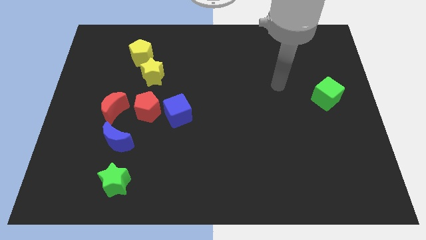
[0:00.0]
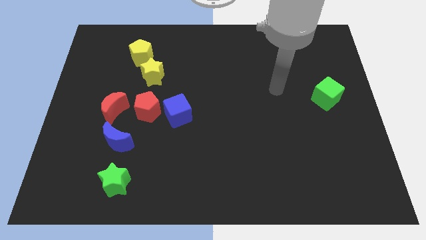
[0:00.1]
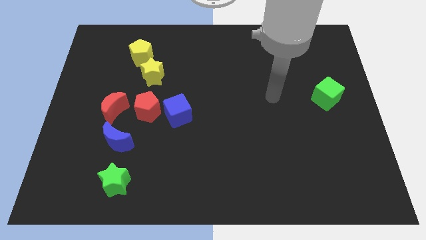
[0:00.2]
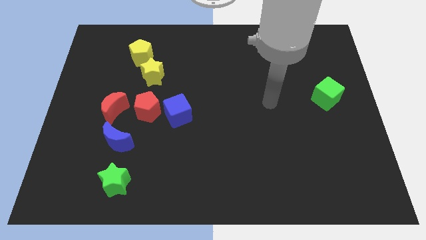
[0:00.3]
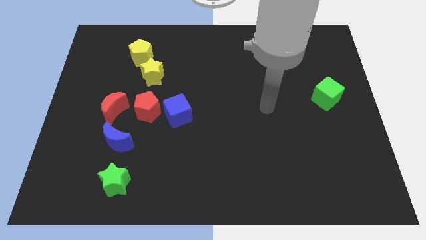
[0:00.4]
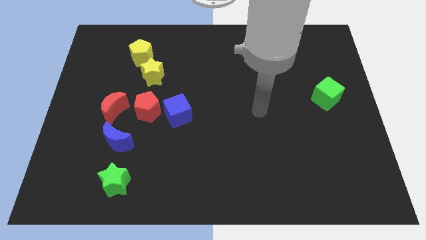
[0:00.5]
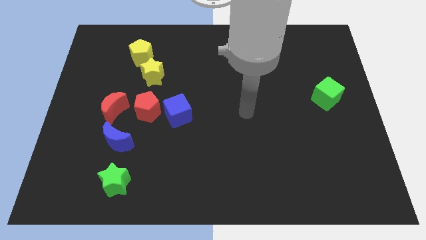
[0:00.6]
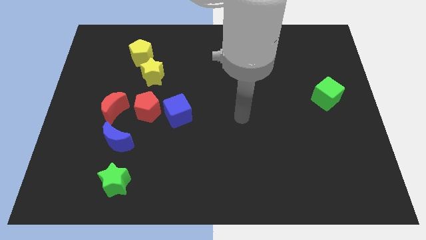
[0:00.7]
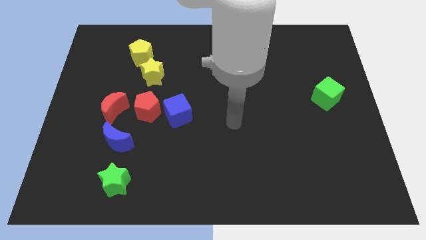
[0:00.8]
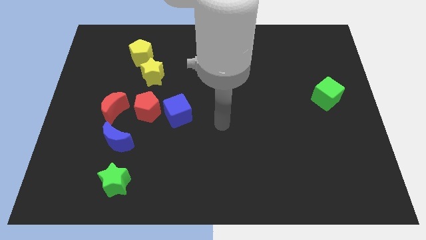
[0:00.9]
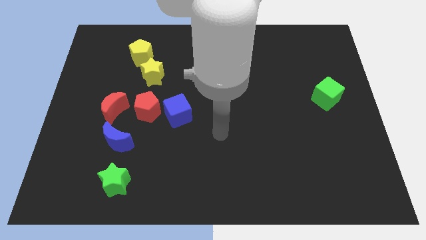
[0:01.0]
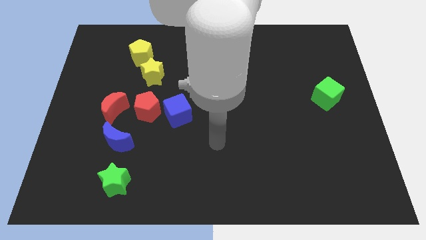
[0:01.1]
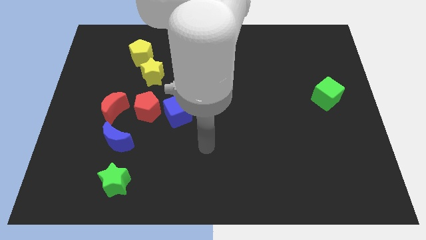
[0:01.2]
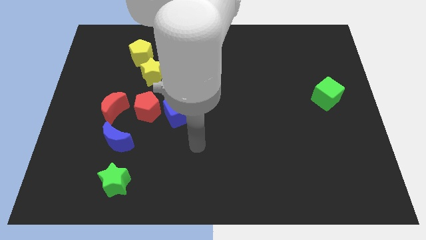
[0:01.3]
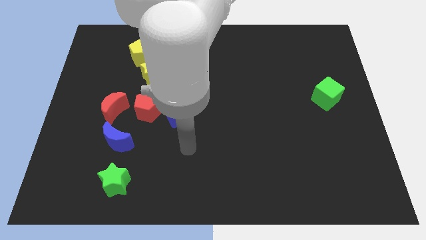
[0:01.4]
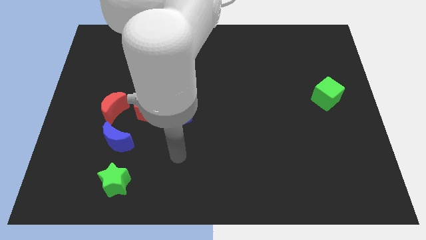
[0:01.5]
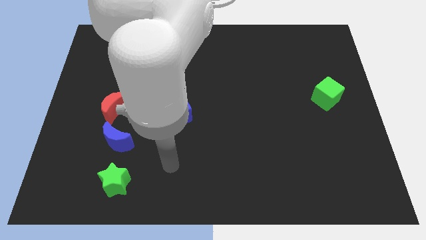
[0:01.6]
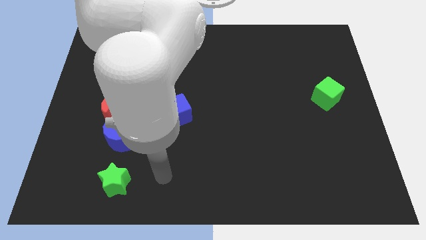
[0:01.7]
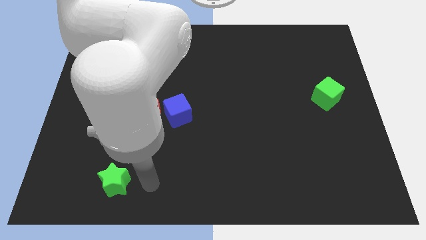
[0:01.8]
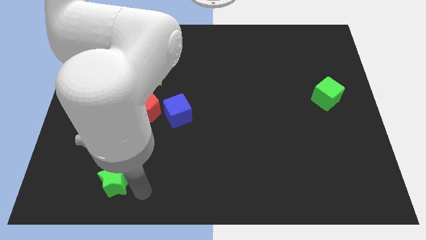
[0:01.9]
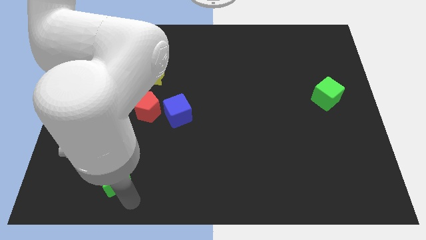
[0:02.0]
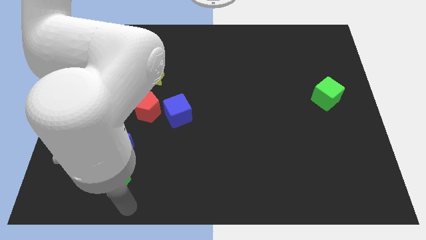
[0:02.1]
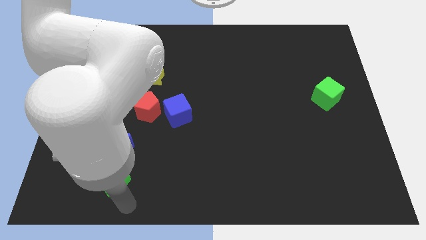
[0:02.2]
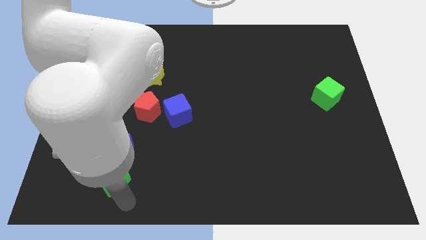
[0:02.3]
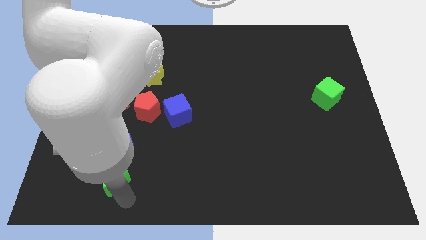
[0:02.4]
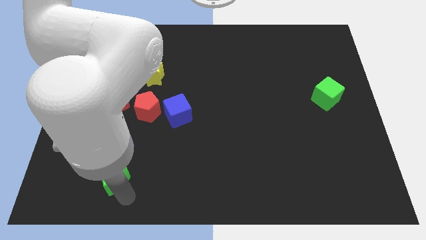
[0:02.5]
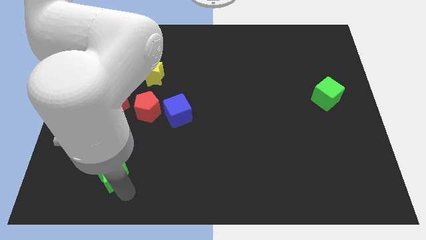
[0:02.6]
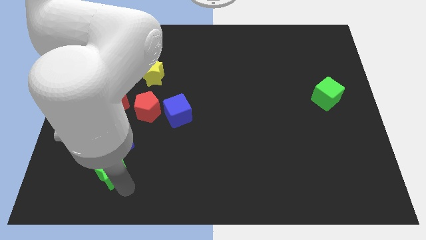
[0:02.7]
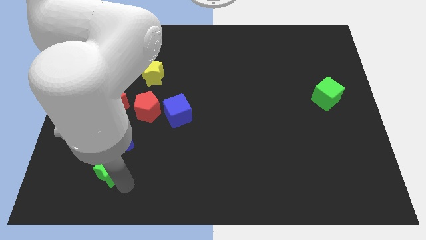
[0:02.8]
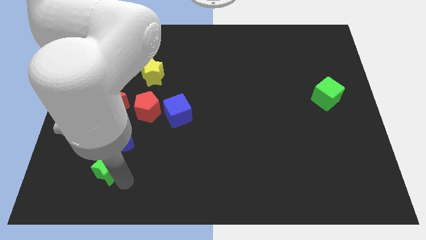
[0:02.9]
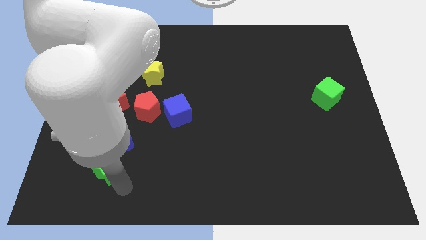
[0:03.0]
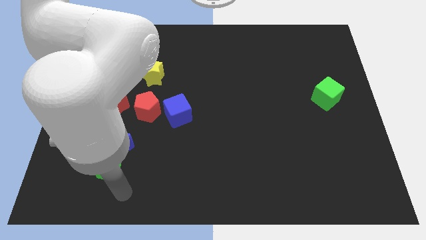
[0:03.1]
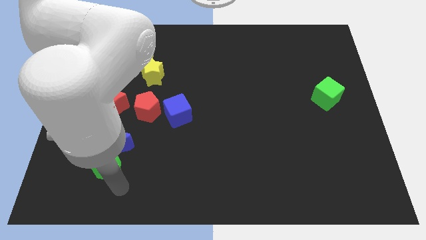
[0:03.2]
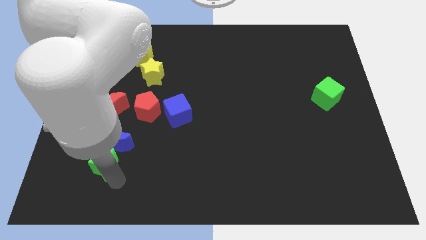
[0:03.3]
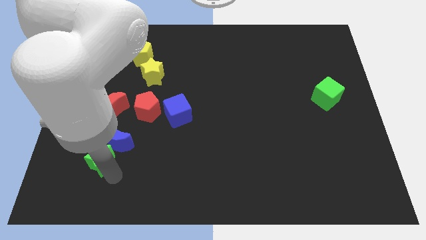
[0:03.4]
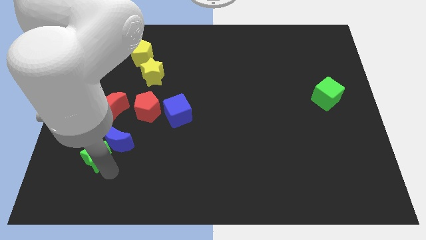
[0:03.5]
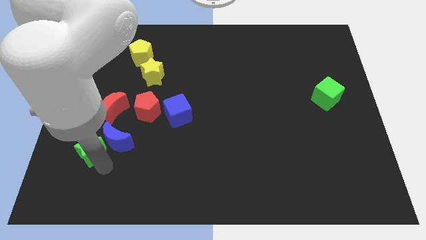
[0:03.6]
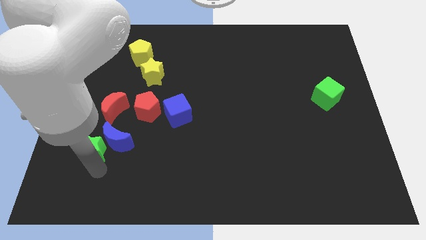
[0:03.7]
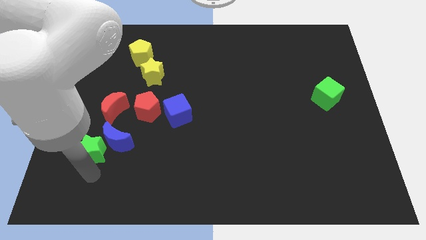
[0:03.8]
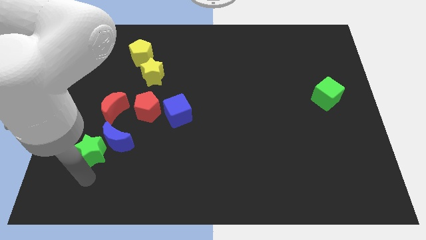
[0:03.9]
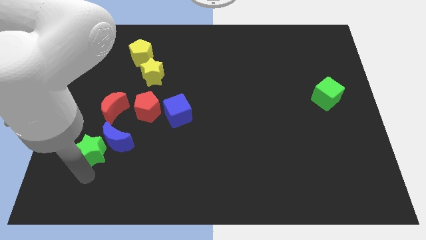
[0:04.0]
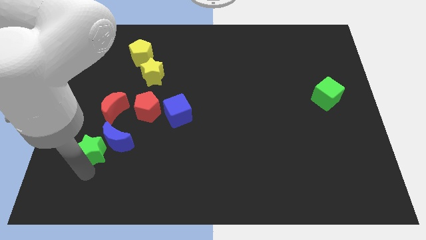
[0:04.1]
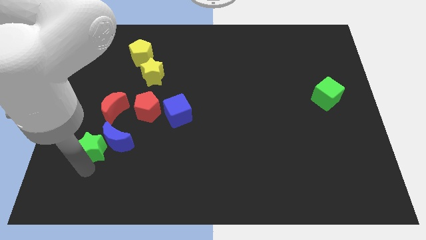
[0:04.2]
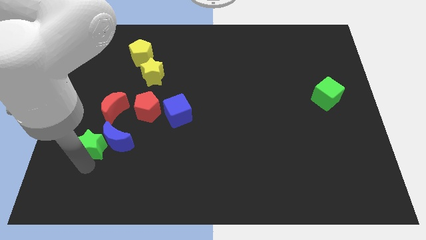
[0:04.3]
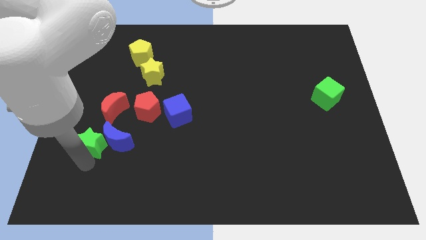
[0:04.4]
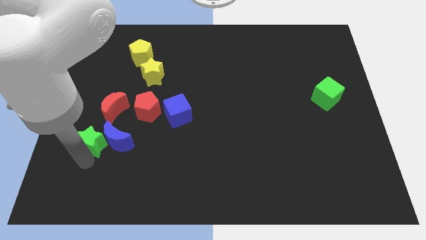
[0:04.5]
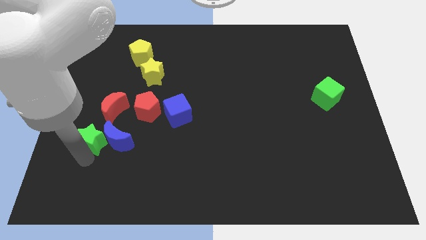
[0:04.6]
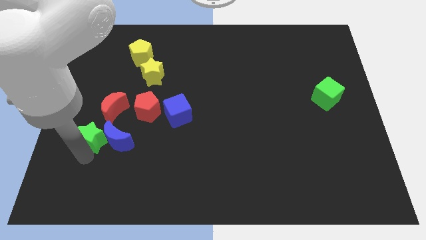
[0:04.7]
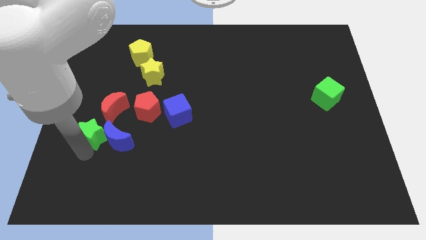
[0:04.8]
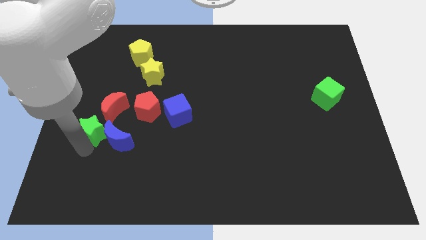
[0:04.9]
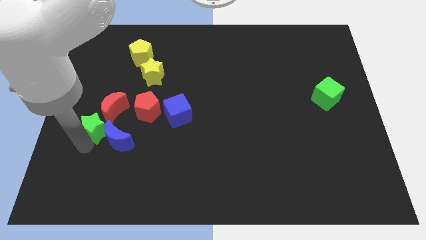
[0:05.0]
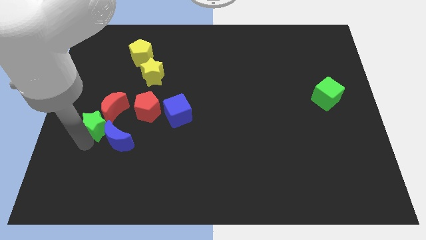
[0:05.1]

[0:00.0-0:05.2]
move the green star next to the red moon

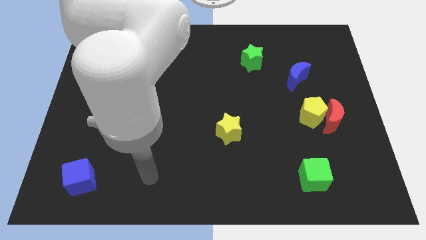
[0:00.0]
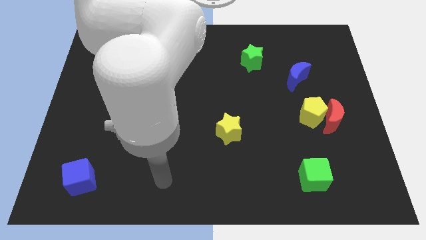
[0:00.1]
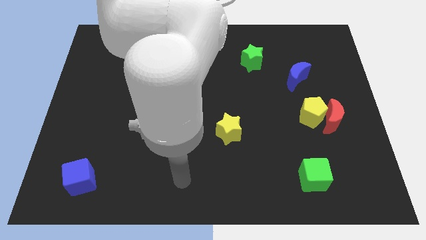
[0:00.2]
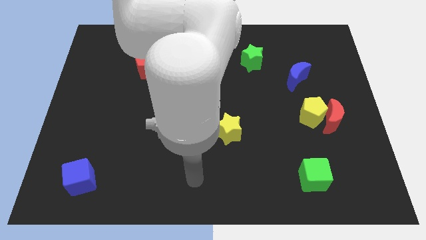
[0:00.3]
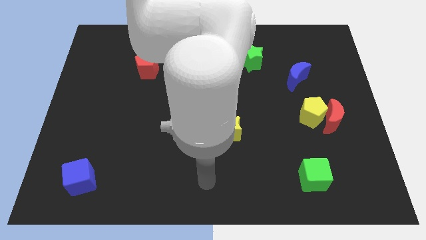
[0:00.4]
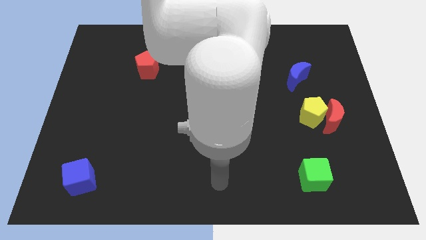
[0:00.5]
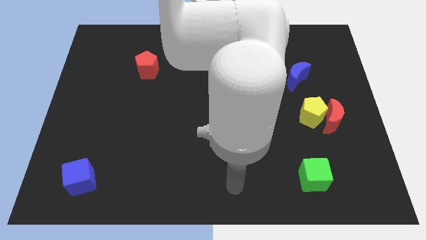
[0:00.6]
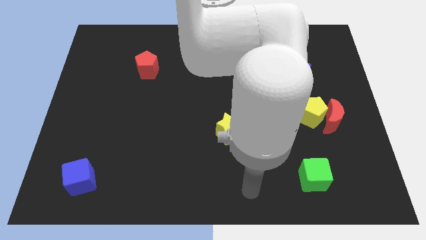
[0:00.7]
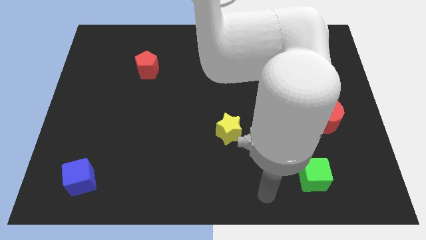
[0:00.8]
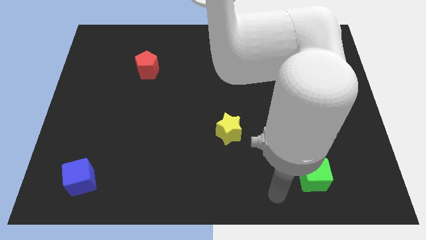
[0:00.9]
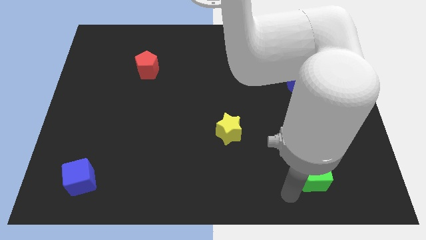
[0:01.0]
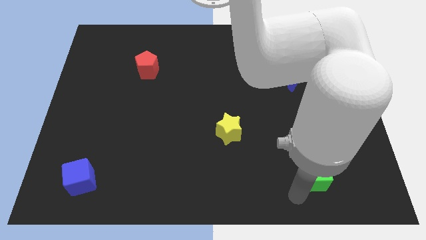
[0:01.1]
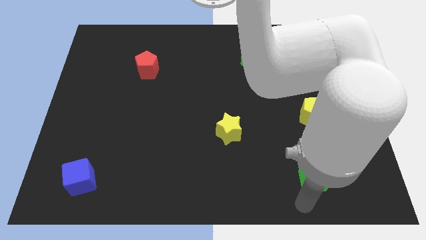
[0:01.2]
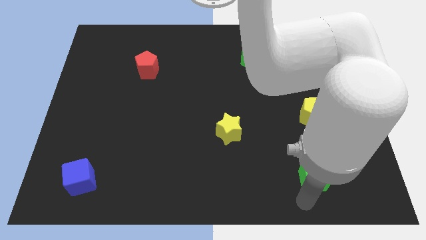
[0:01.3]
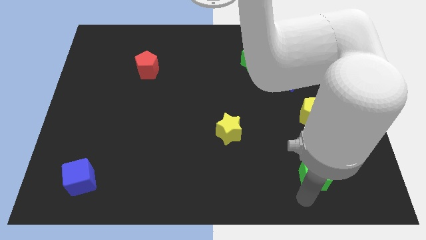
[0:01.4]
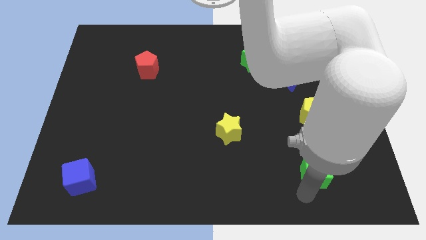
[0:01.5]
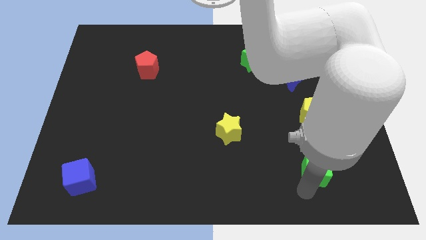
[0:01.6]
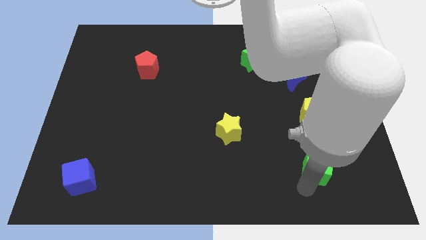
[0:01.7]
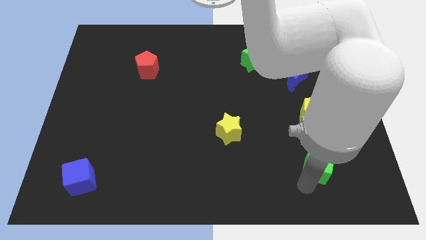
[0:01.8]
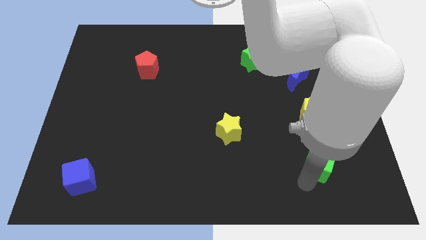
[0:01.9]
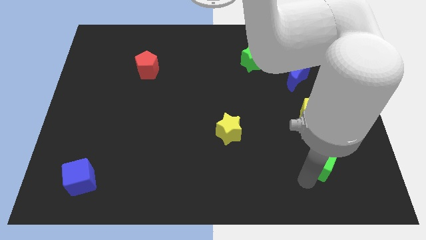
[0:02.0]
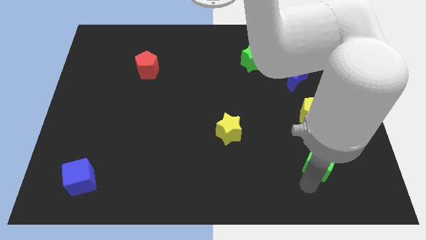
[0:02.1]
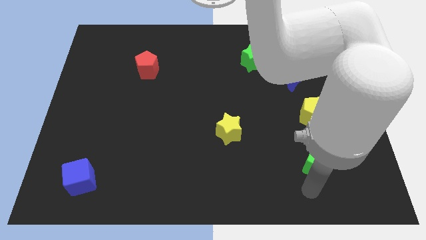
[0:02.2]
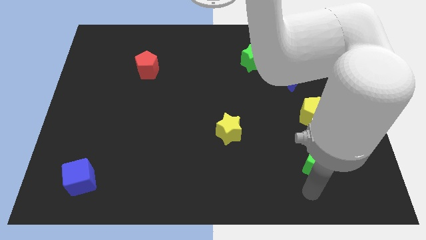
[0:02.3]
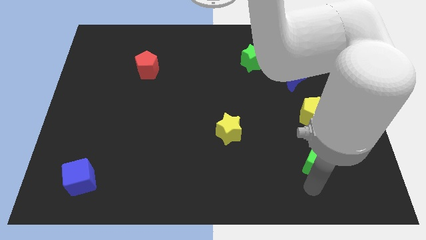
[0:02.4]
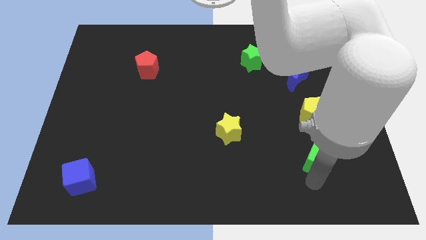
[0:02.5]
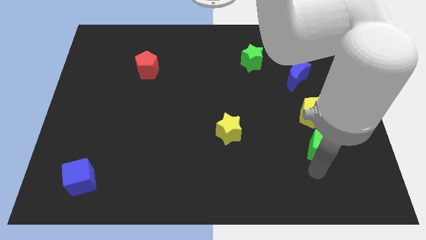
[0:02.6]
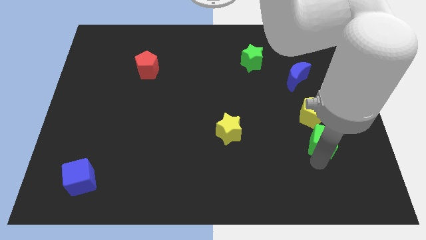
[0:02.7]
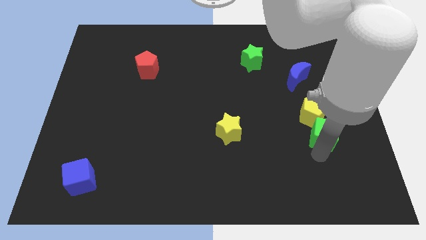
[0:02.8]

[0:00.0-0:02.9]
push the green cube next to the red moon
